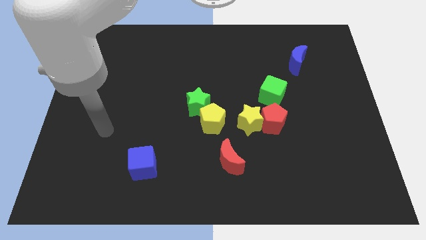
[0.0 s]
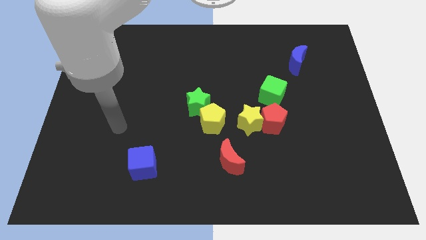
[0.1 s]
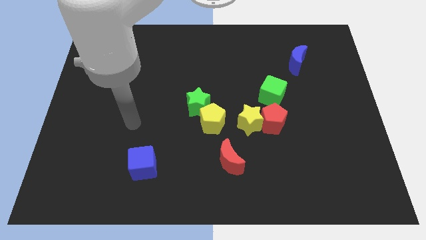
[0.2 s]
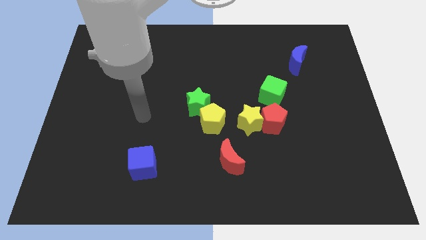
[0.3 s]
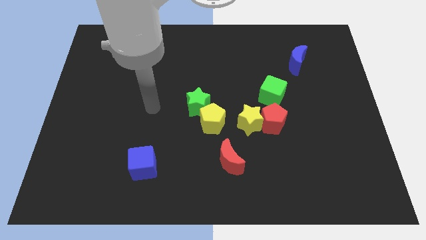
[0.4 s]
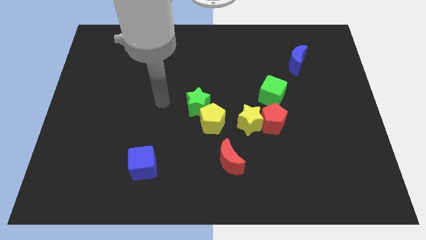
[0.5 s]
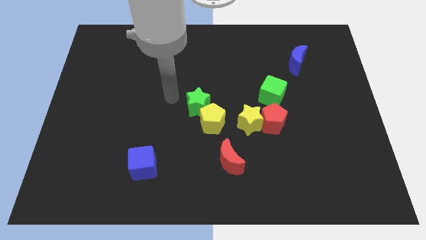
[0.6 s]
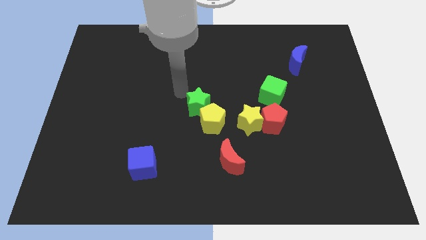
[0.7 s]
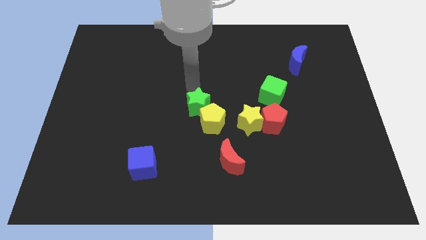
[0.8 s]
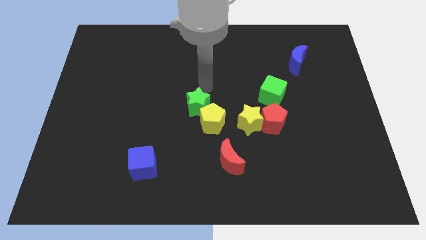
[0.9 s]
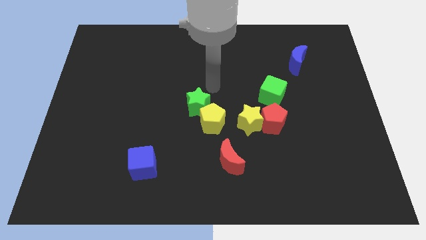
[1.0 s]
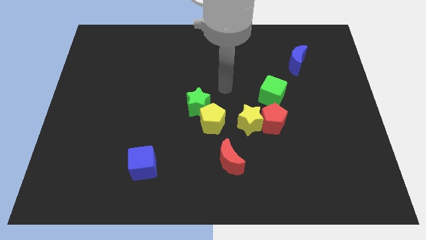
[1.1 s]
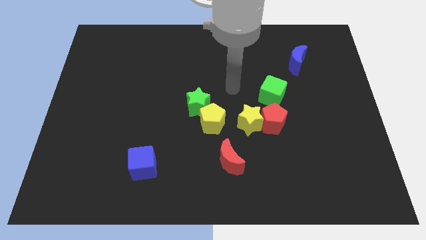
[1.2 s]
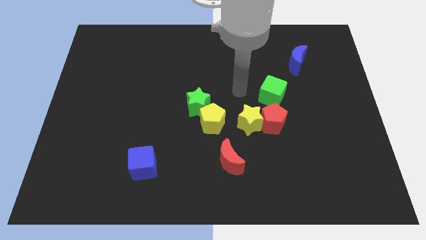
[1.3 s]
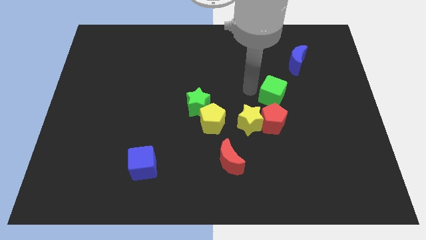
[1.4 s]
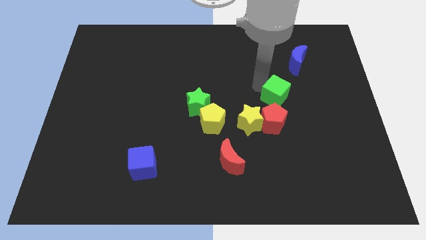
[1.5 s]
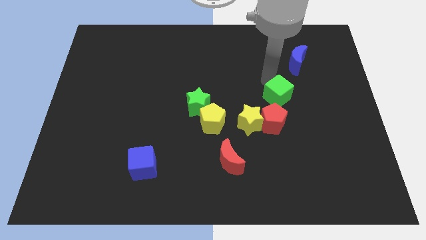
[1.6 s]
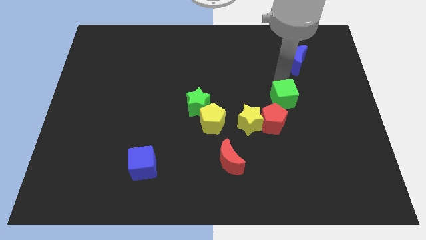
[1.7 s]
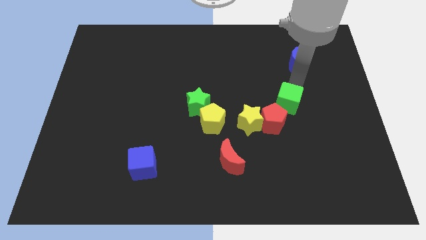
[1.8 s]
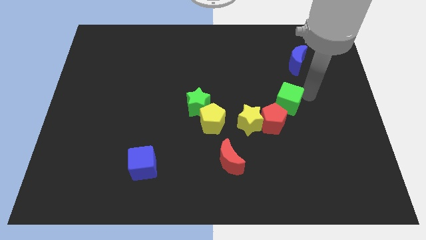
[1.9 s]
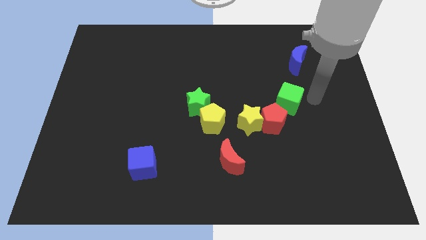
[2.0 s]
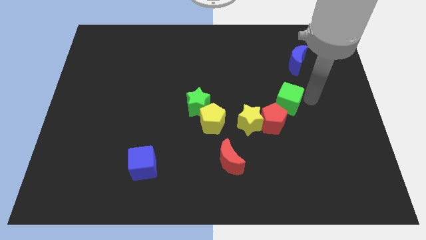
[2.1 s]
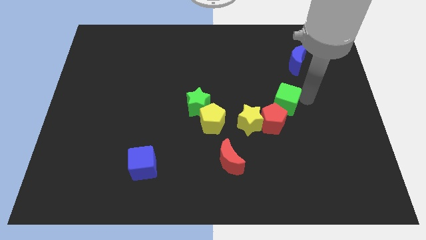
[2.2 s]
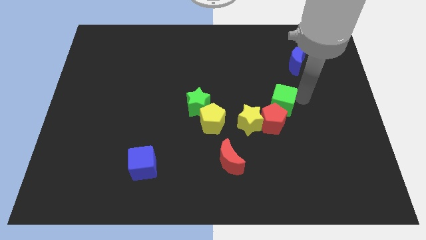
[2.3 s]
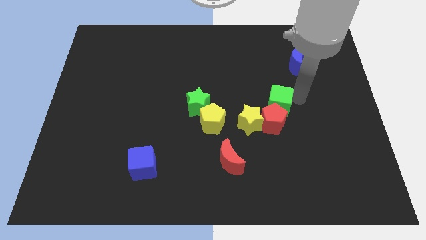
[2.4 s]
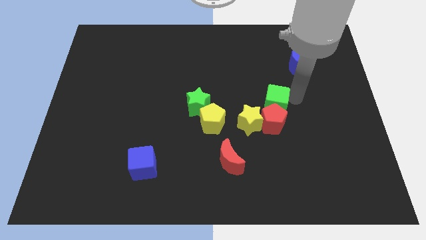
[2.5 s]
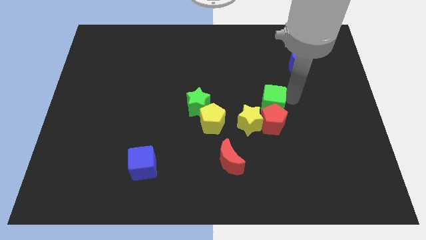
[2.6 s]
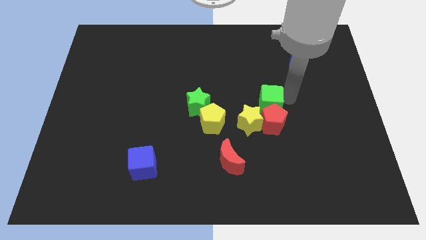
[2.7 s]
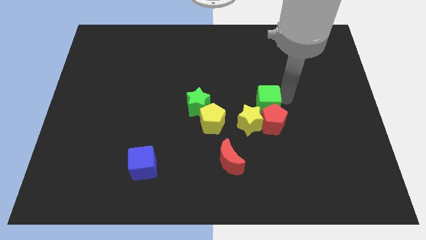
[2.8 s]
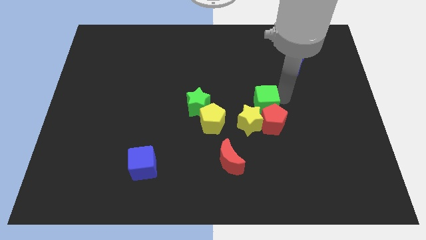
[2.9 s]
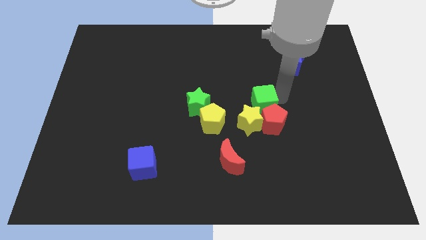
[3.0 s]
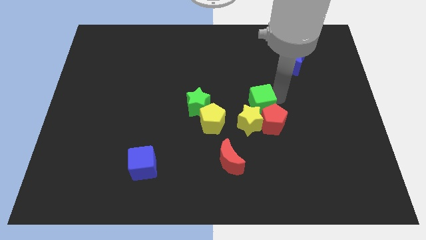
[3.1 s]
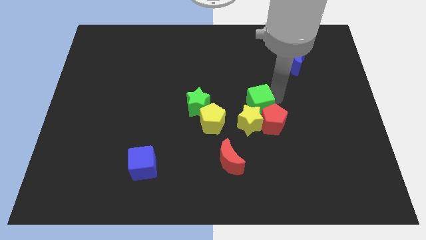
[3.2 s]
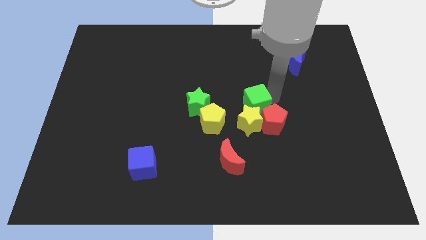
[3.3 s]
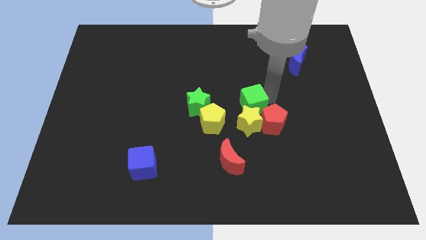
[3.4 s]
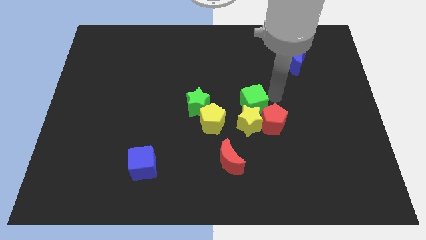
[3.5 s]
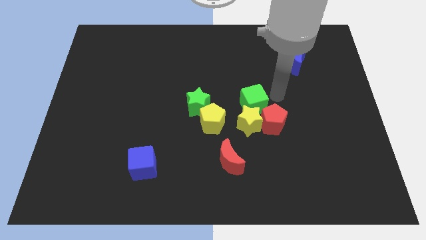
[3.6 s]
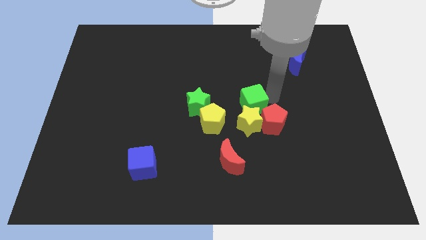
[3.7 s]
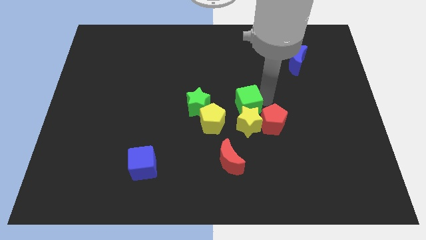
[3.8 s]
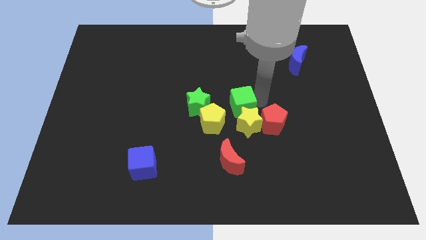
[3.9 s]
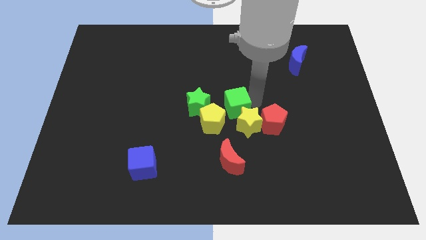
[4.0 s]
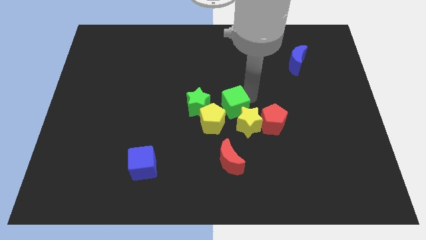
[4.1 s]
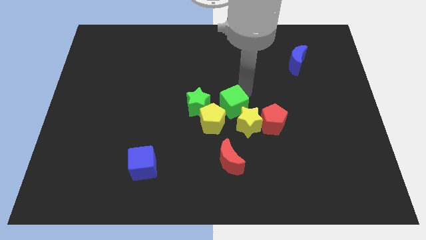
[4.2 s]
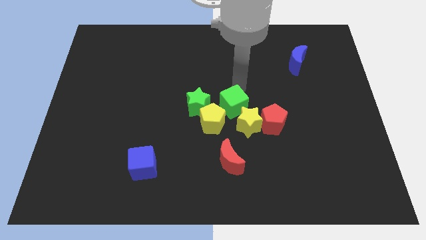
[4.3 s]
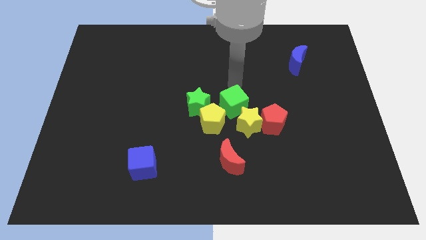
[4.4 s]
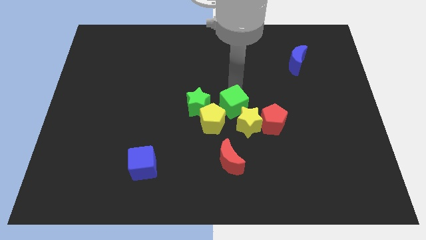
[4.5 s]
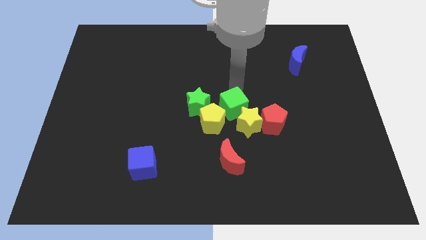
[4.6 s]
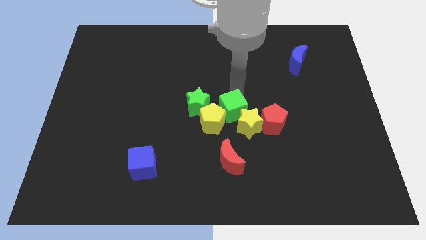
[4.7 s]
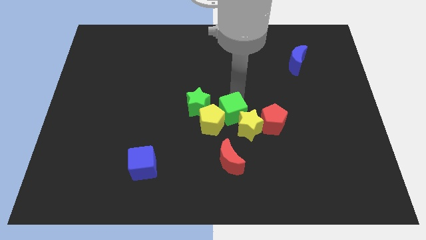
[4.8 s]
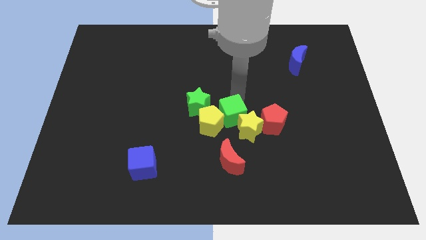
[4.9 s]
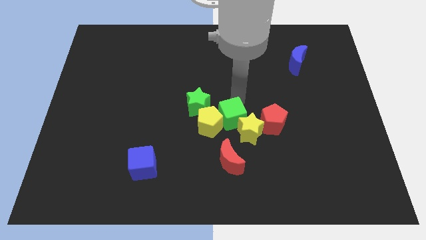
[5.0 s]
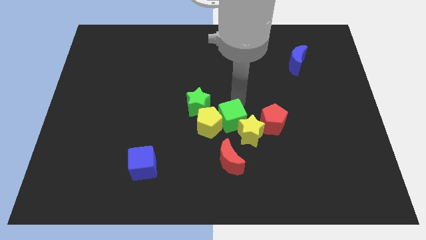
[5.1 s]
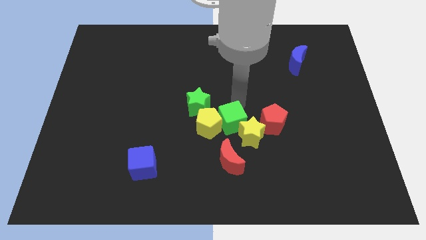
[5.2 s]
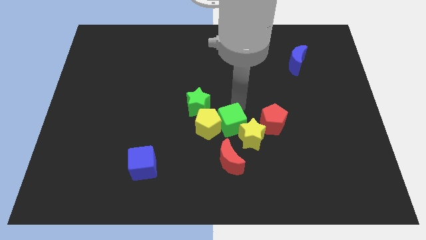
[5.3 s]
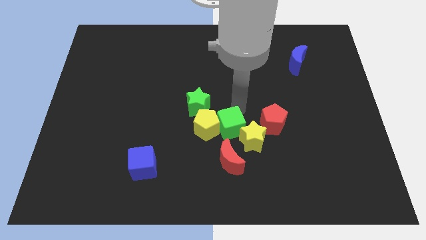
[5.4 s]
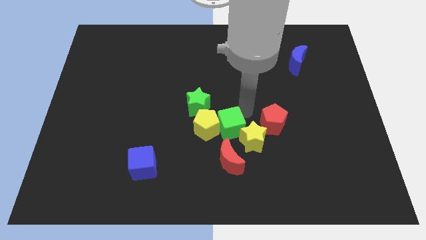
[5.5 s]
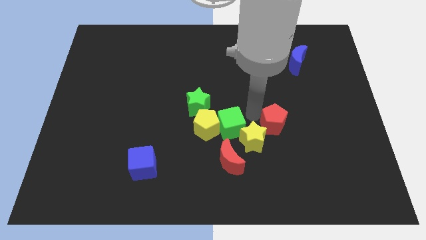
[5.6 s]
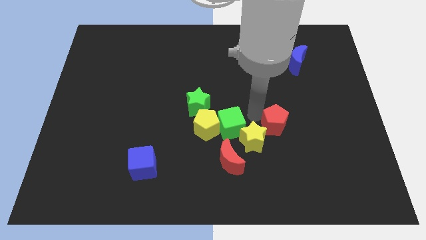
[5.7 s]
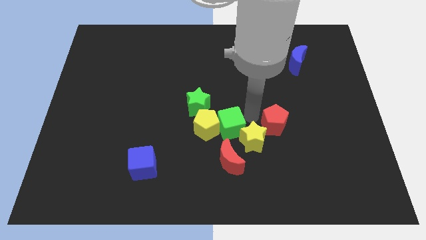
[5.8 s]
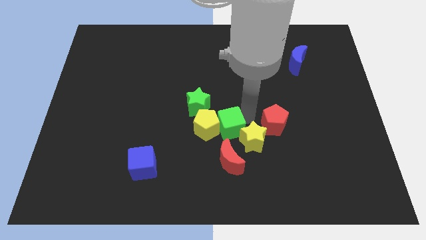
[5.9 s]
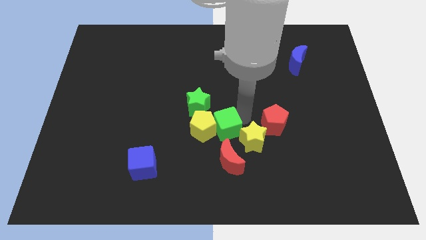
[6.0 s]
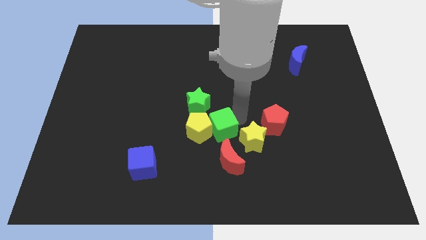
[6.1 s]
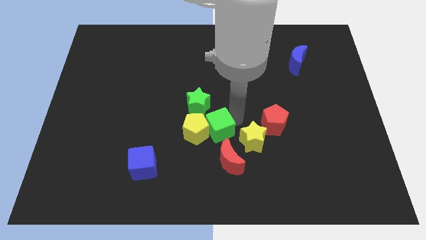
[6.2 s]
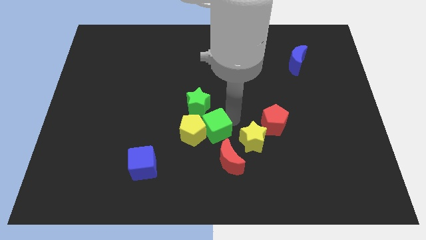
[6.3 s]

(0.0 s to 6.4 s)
move the green cube to the bottom of the green star

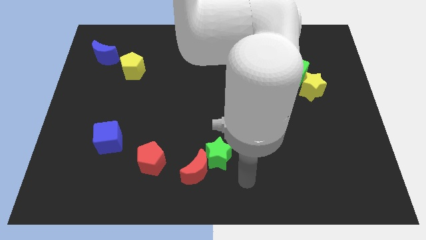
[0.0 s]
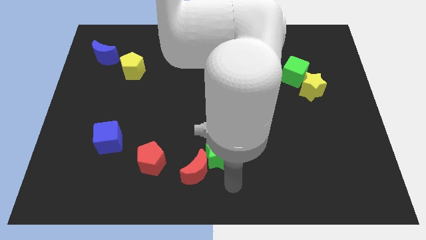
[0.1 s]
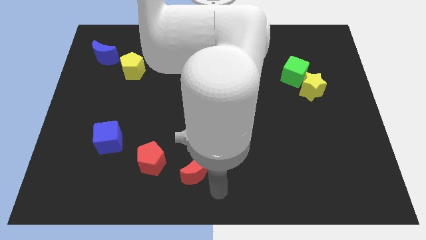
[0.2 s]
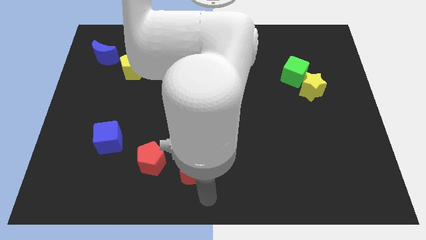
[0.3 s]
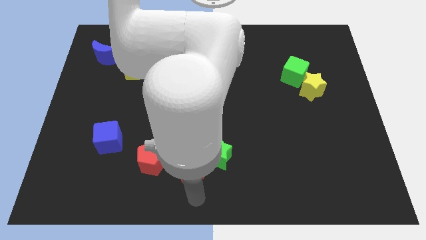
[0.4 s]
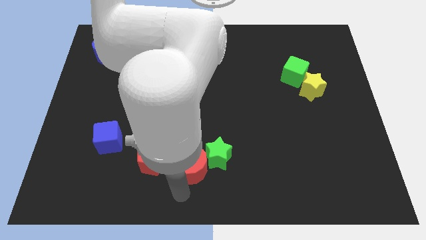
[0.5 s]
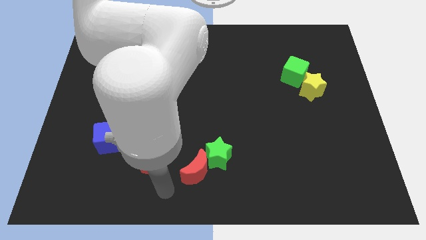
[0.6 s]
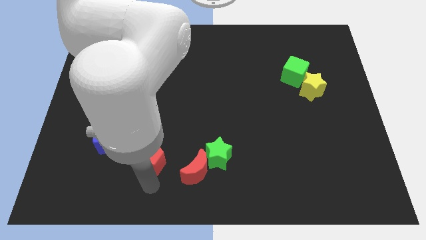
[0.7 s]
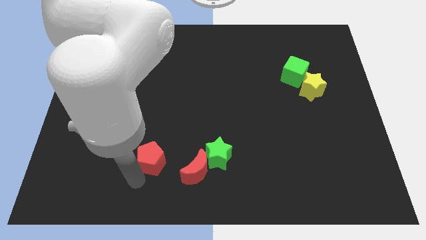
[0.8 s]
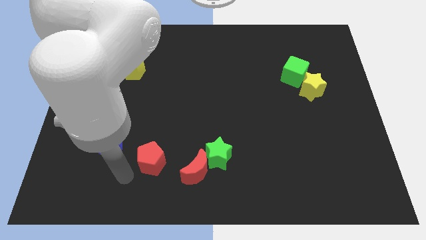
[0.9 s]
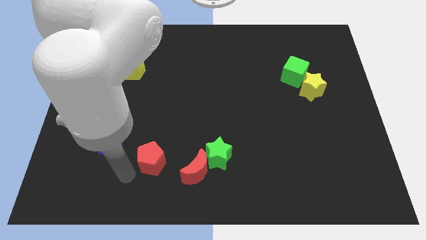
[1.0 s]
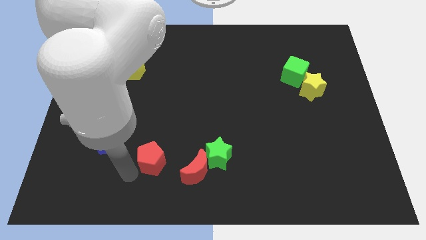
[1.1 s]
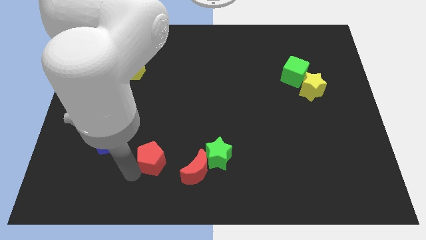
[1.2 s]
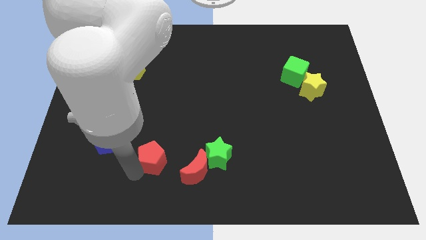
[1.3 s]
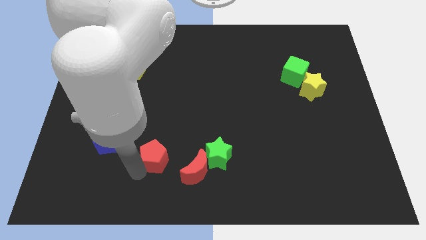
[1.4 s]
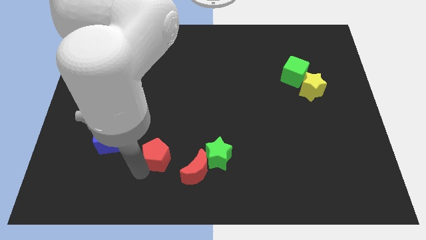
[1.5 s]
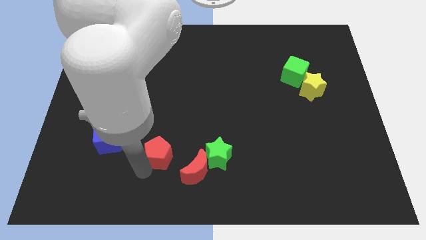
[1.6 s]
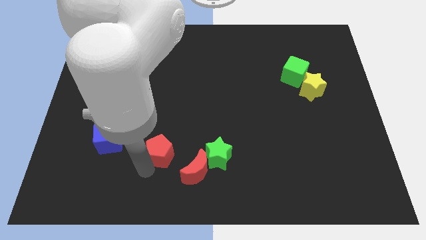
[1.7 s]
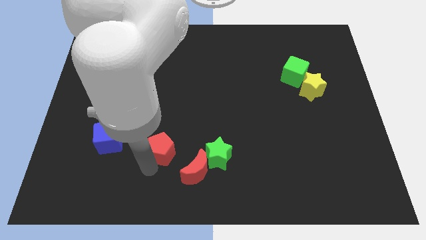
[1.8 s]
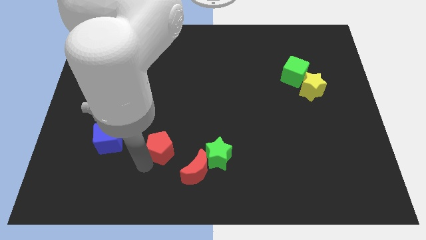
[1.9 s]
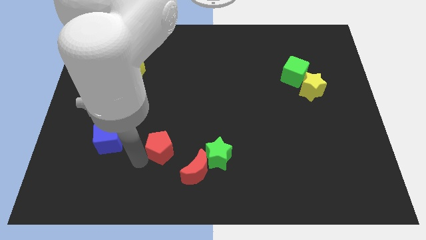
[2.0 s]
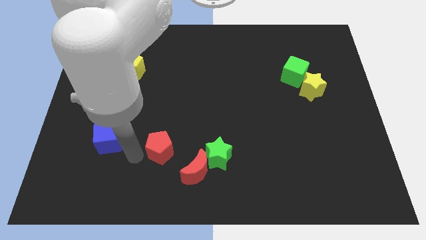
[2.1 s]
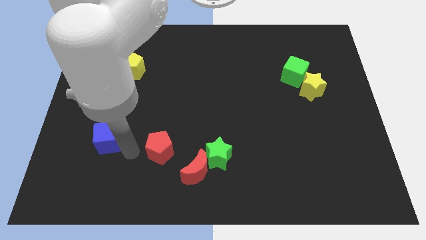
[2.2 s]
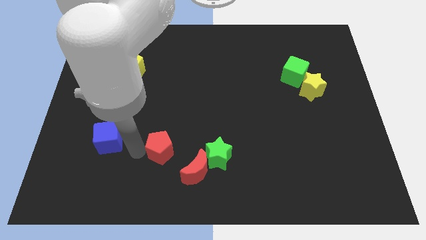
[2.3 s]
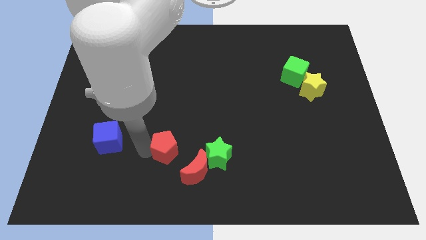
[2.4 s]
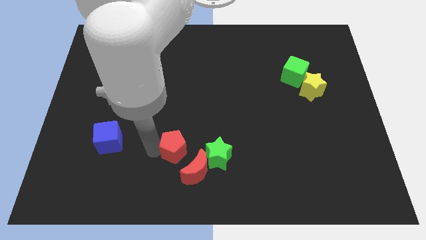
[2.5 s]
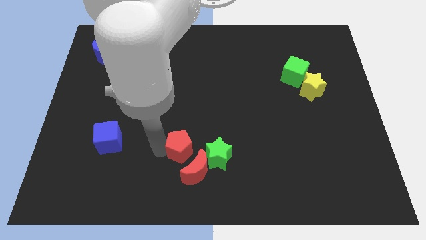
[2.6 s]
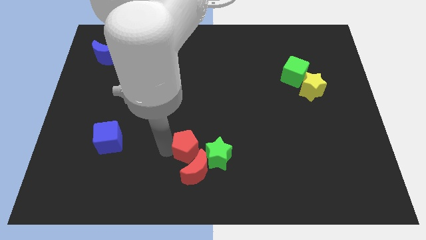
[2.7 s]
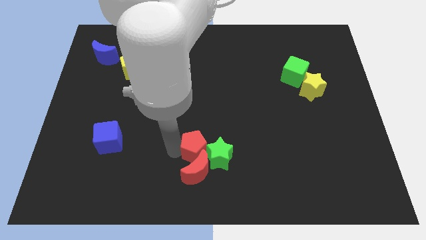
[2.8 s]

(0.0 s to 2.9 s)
slide the red pentagon to the top right of the red moon
